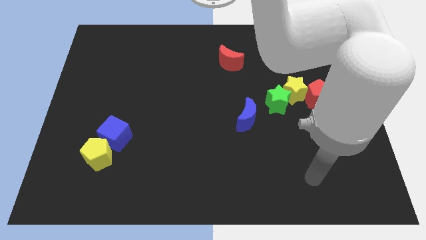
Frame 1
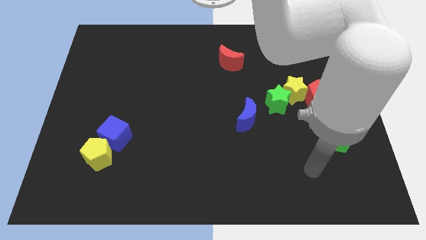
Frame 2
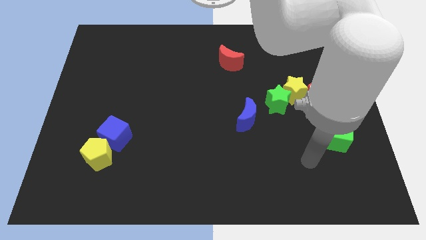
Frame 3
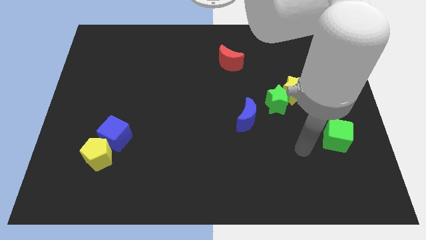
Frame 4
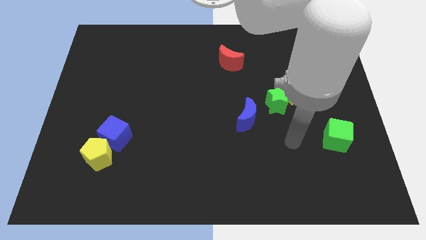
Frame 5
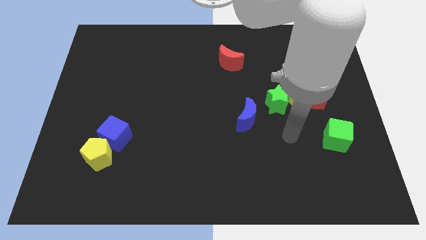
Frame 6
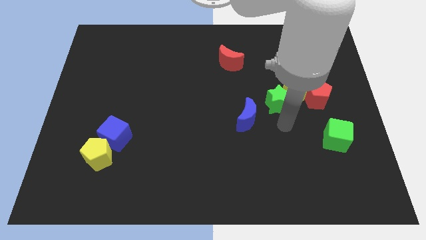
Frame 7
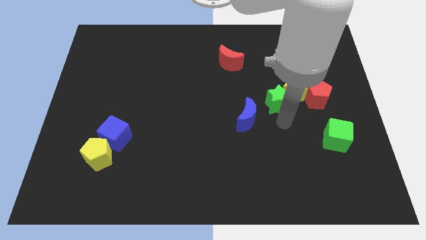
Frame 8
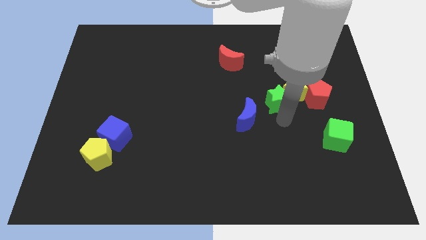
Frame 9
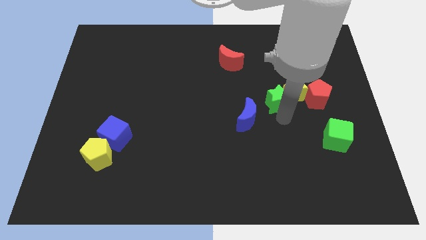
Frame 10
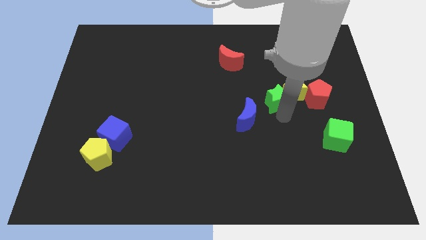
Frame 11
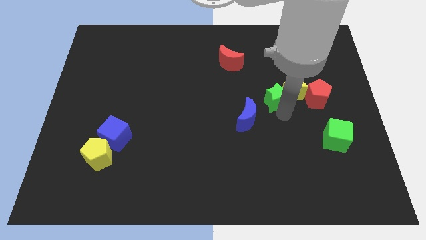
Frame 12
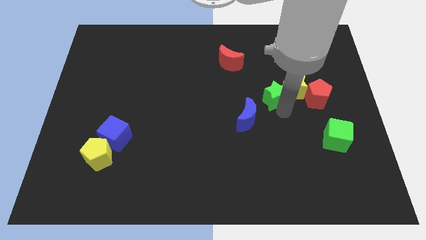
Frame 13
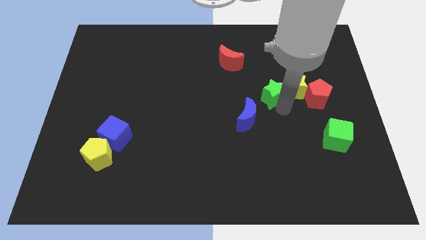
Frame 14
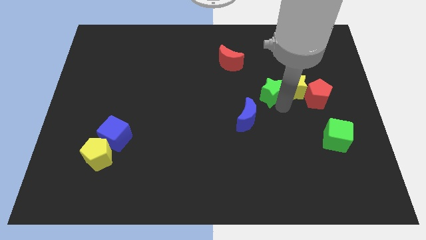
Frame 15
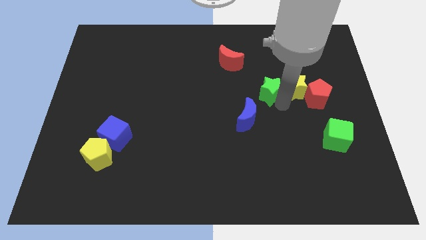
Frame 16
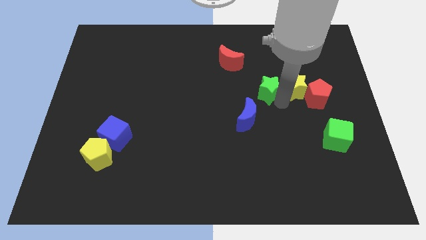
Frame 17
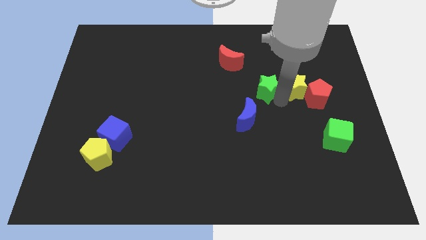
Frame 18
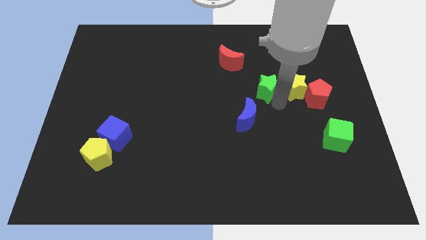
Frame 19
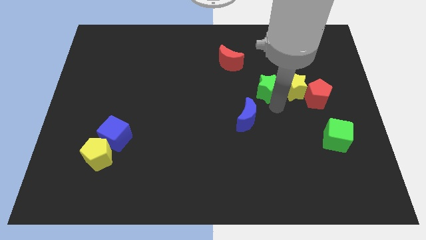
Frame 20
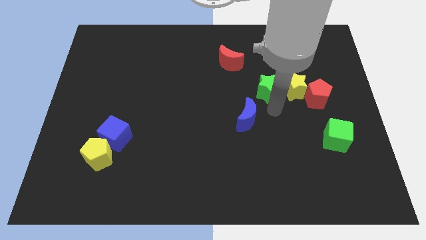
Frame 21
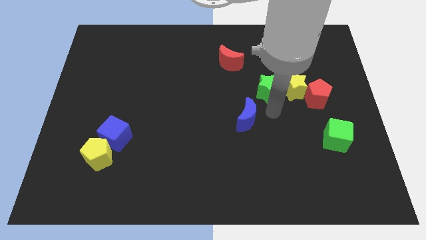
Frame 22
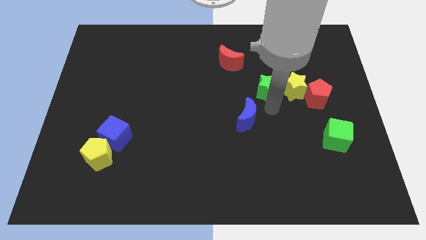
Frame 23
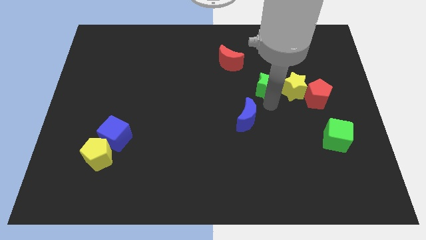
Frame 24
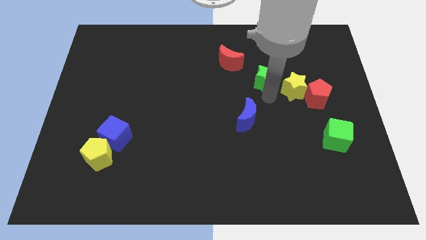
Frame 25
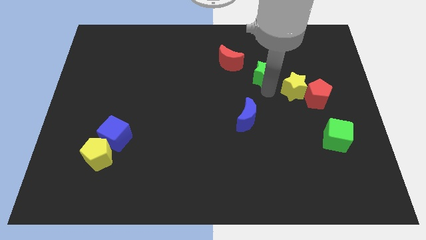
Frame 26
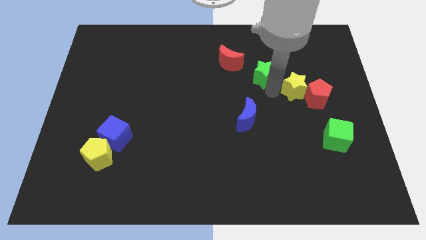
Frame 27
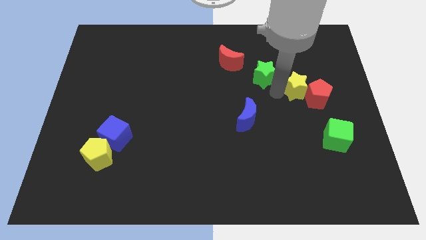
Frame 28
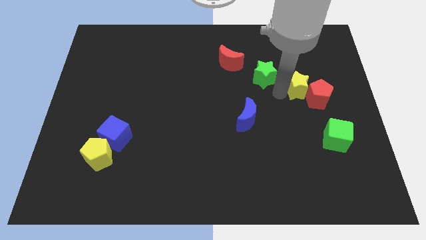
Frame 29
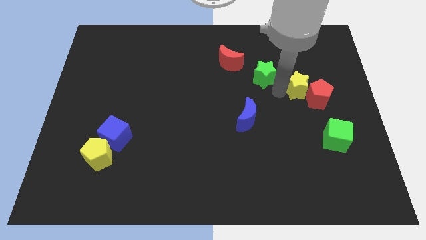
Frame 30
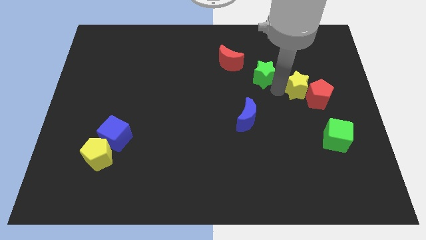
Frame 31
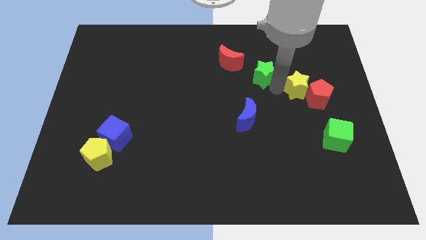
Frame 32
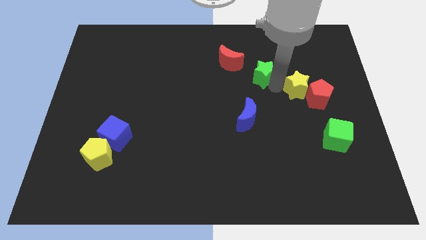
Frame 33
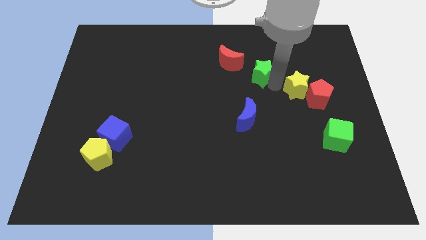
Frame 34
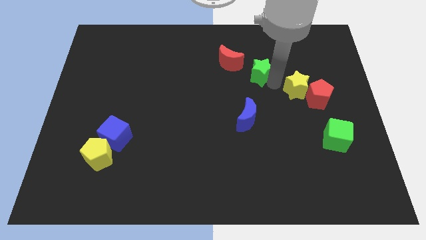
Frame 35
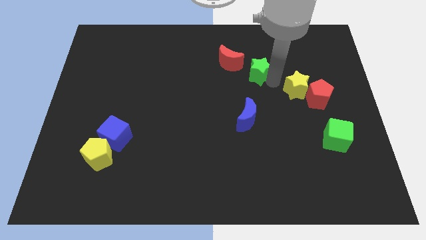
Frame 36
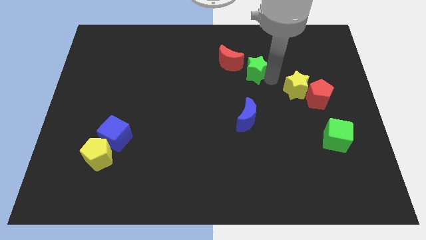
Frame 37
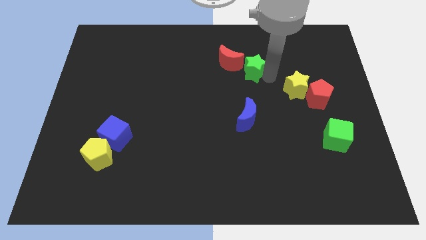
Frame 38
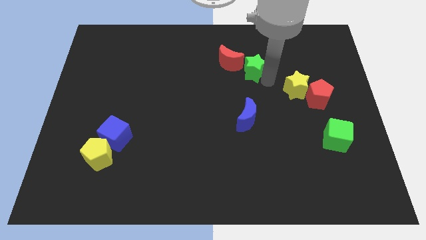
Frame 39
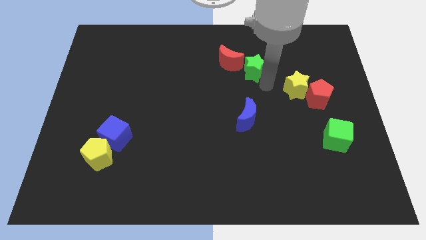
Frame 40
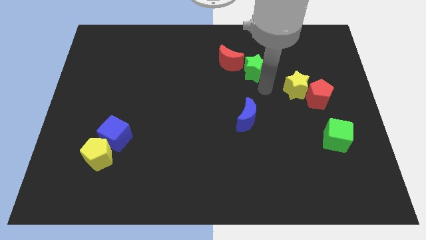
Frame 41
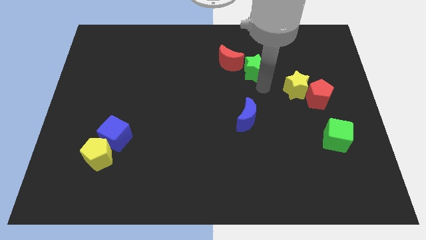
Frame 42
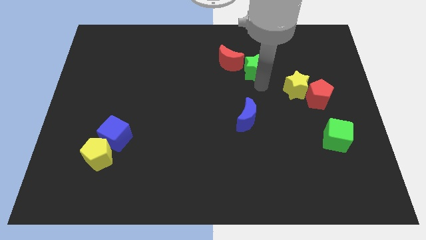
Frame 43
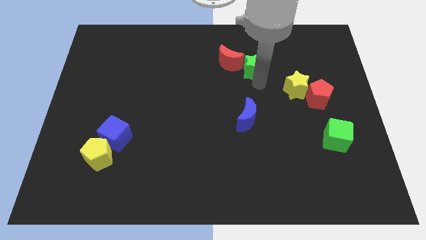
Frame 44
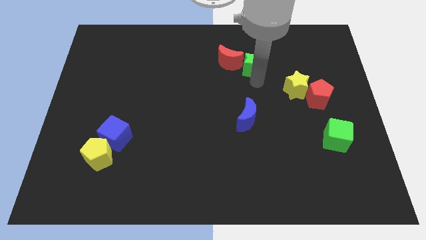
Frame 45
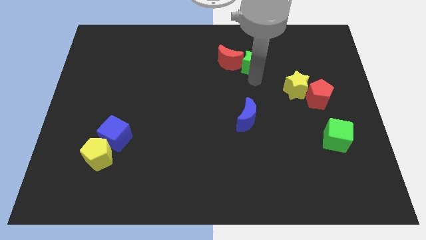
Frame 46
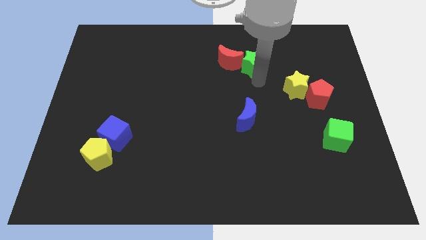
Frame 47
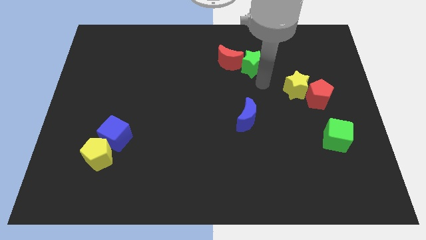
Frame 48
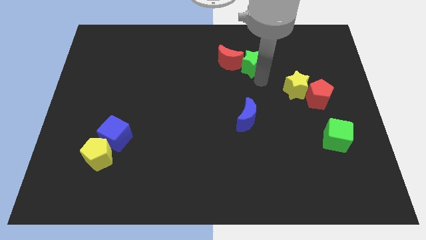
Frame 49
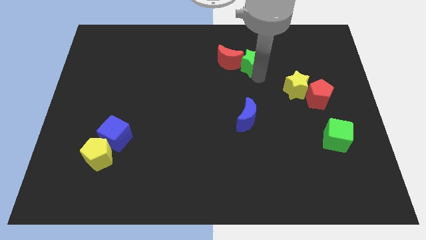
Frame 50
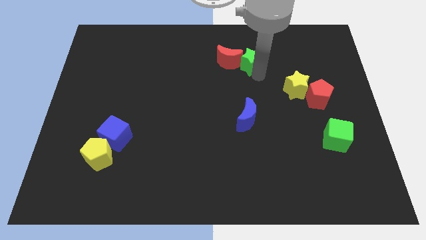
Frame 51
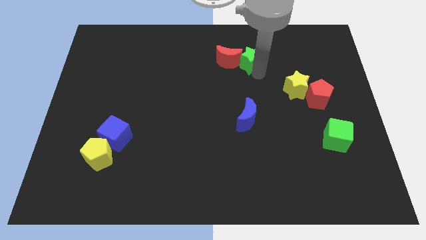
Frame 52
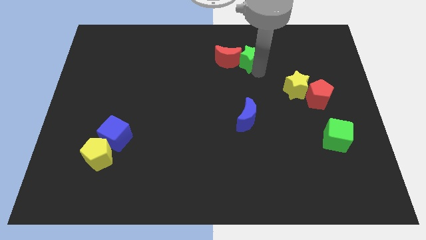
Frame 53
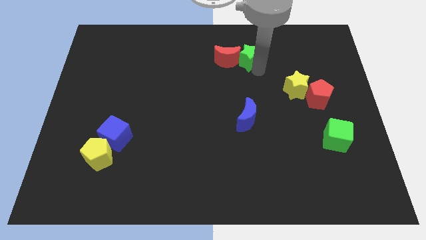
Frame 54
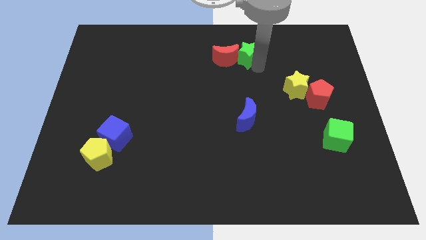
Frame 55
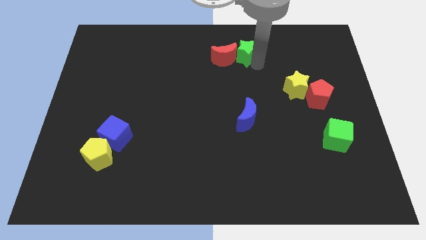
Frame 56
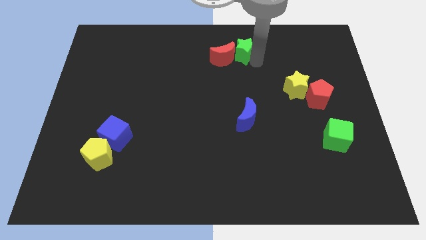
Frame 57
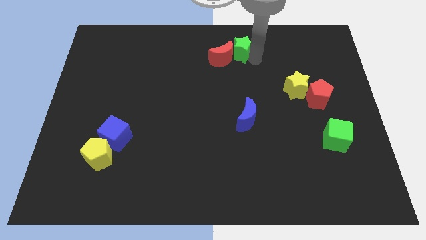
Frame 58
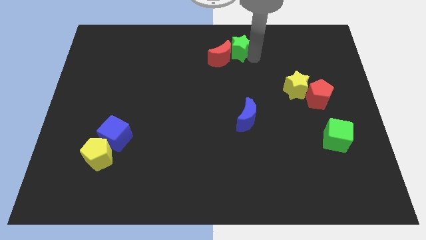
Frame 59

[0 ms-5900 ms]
move the green star to the towards your base

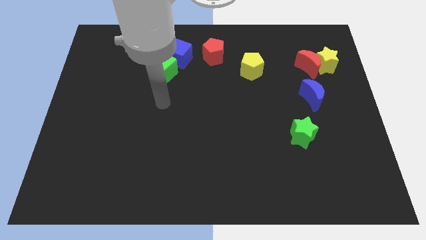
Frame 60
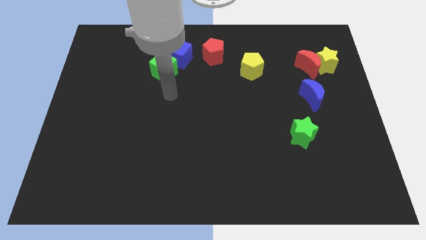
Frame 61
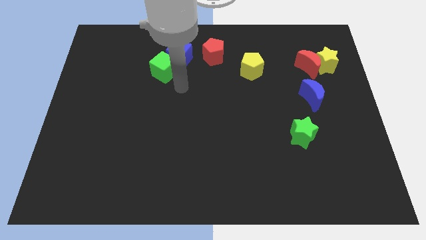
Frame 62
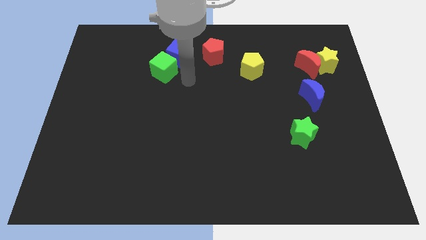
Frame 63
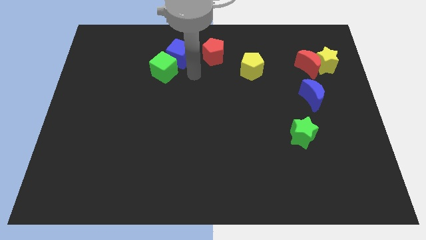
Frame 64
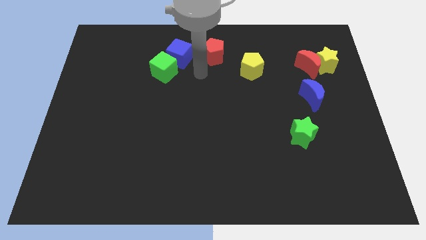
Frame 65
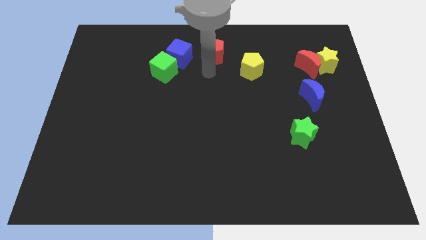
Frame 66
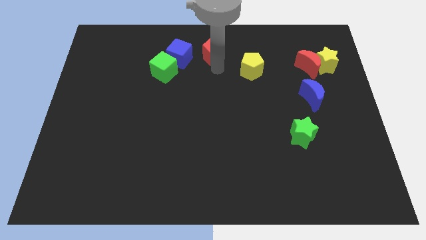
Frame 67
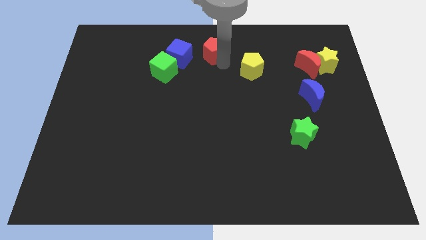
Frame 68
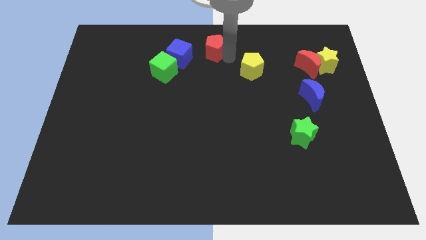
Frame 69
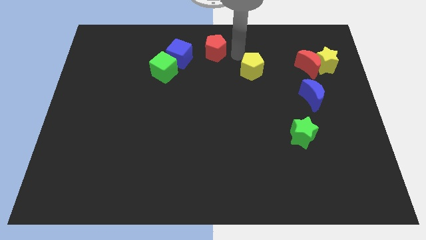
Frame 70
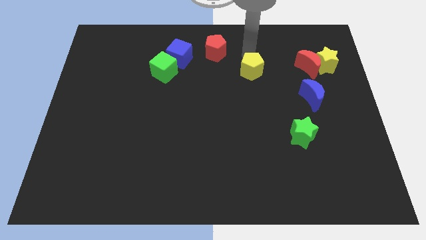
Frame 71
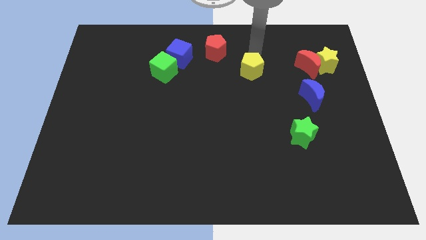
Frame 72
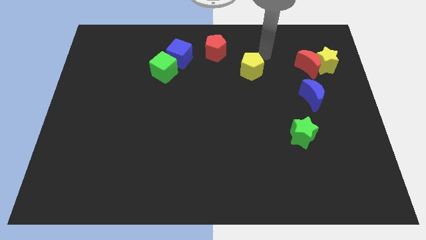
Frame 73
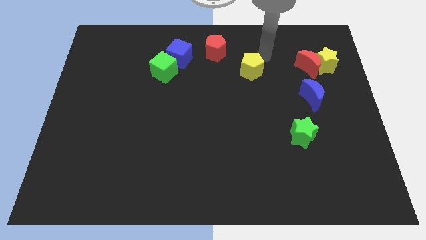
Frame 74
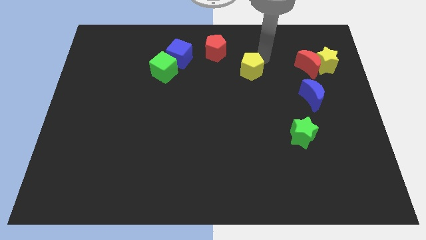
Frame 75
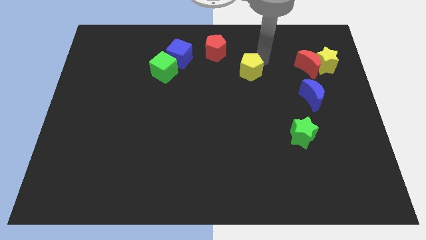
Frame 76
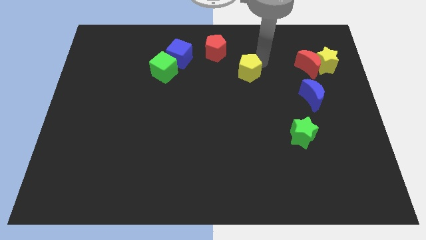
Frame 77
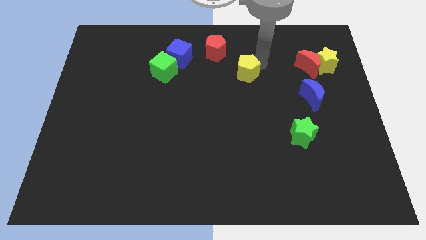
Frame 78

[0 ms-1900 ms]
push the yellow pentagon to the center
